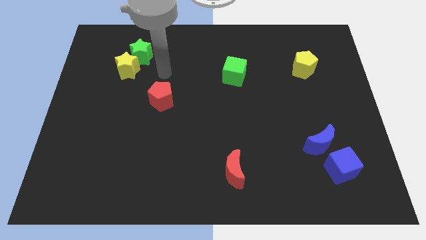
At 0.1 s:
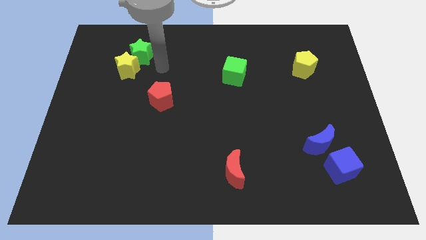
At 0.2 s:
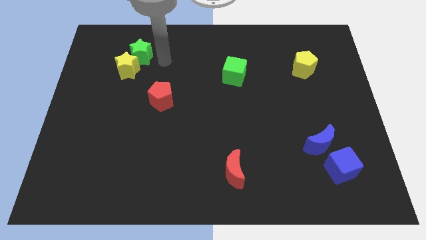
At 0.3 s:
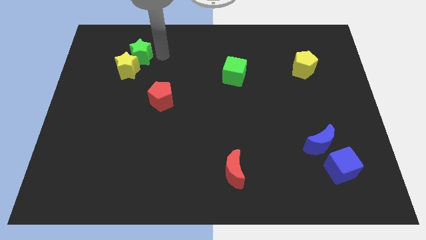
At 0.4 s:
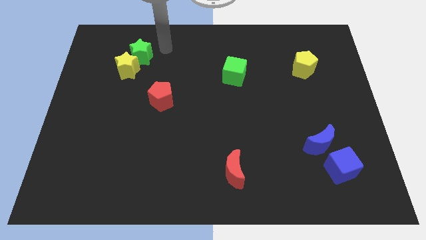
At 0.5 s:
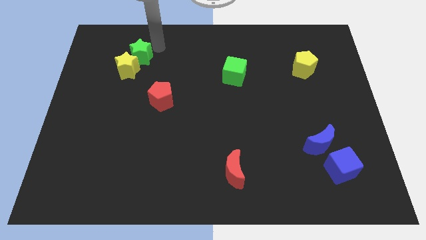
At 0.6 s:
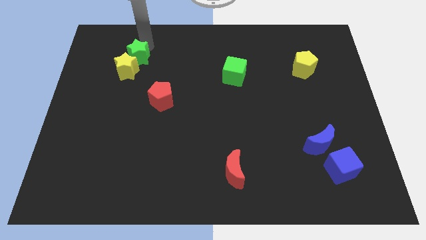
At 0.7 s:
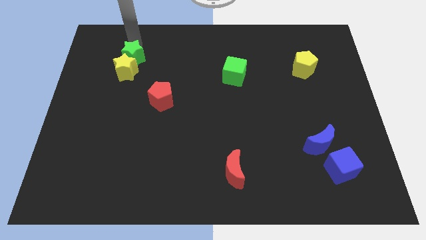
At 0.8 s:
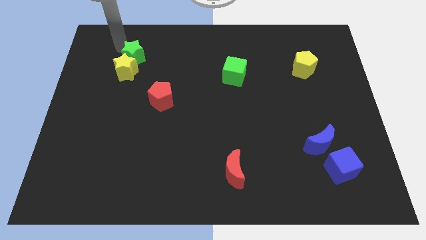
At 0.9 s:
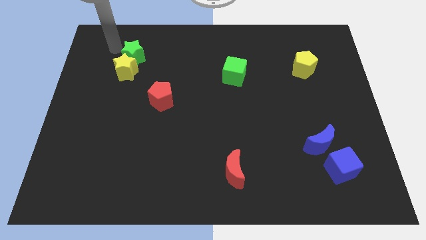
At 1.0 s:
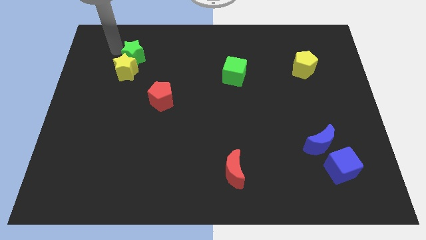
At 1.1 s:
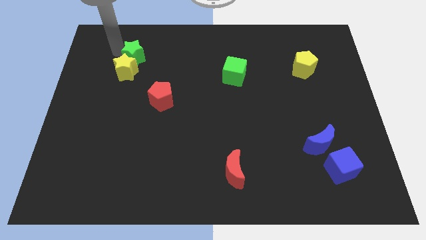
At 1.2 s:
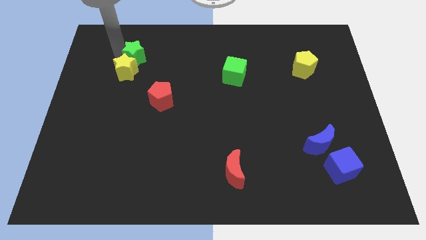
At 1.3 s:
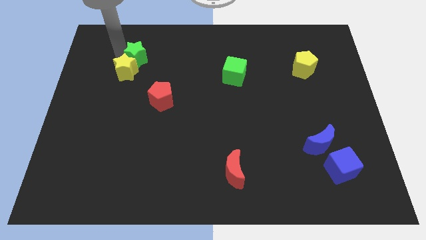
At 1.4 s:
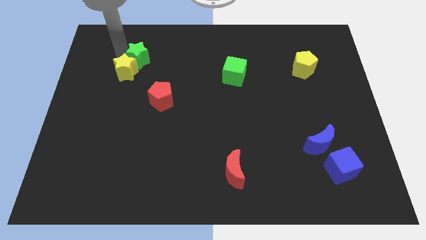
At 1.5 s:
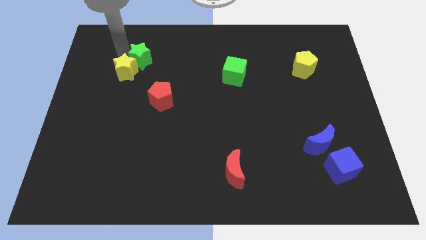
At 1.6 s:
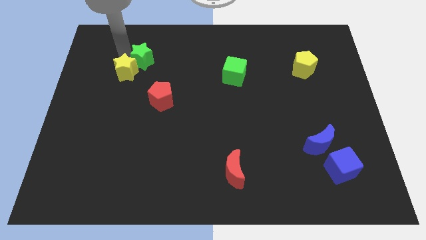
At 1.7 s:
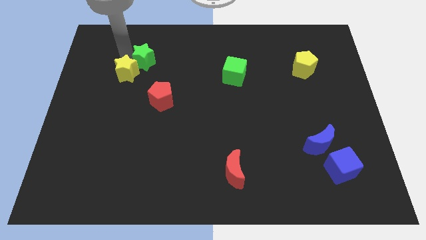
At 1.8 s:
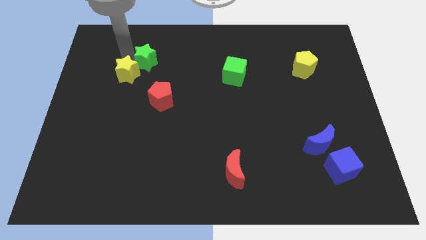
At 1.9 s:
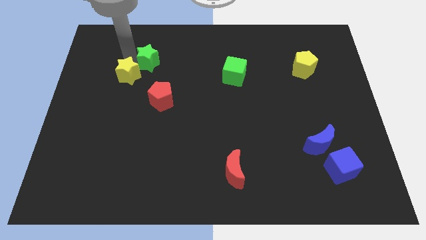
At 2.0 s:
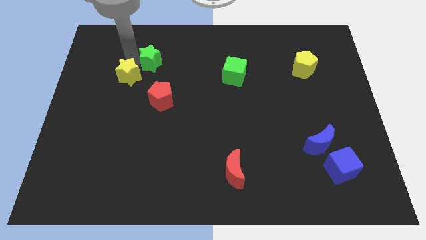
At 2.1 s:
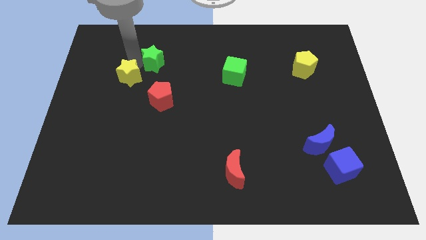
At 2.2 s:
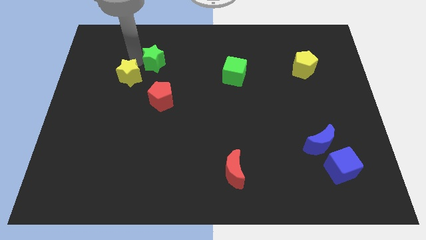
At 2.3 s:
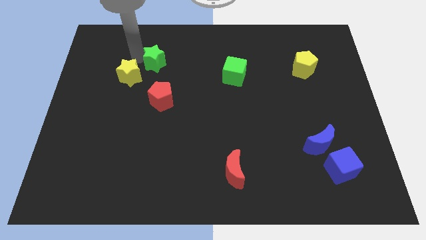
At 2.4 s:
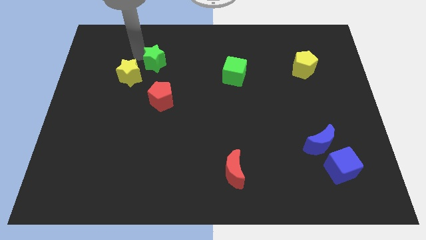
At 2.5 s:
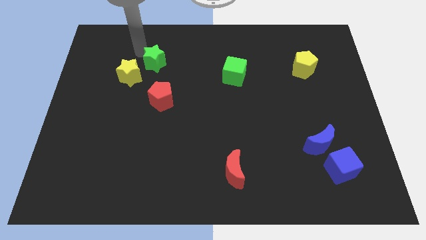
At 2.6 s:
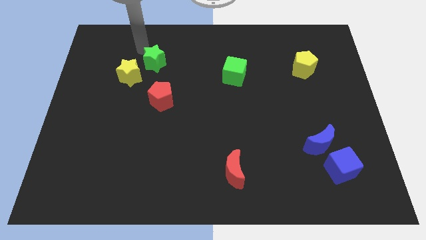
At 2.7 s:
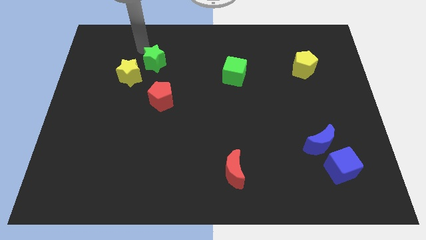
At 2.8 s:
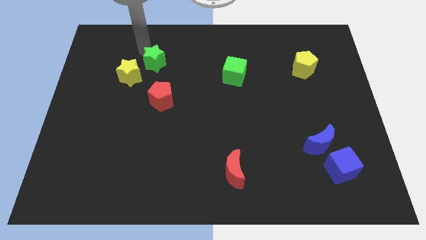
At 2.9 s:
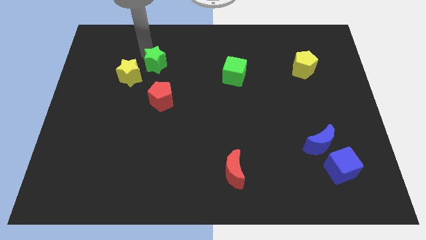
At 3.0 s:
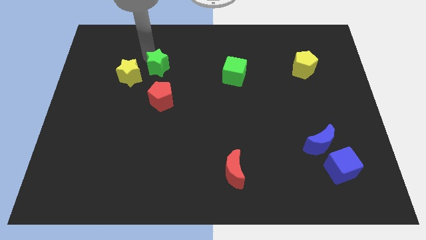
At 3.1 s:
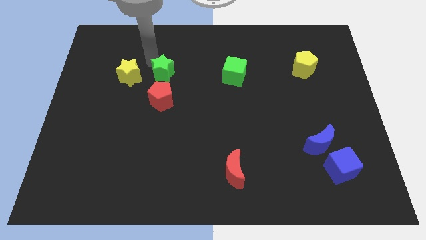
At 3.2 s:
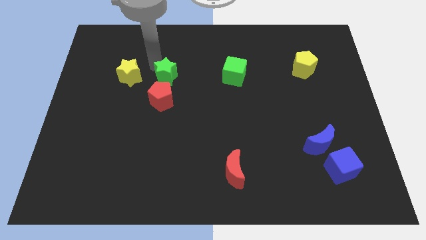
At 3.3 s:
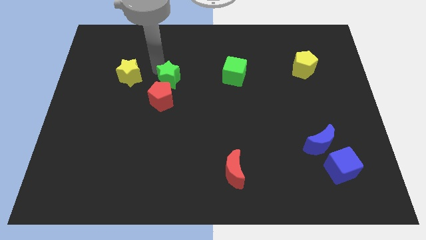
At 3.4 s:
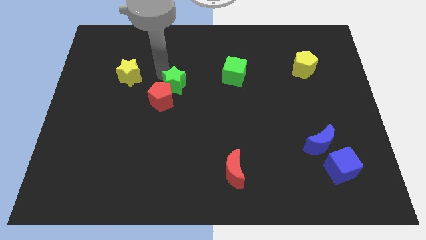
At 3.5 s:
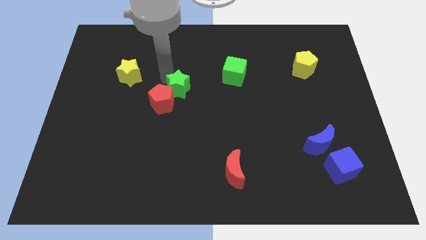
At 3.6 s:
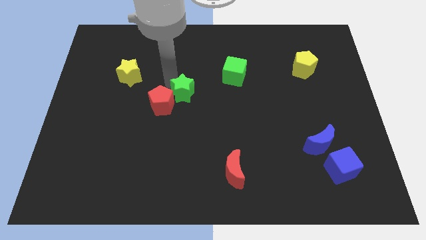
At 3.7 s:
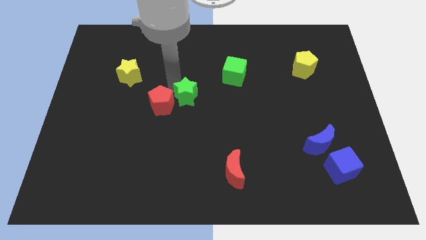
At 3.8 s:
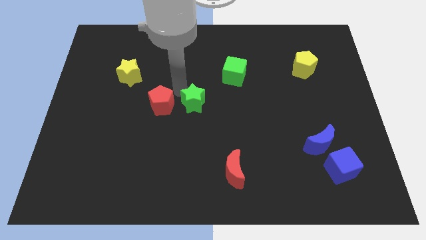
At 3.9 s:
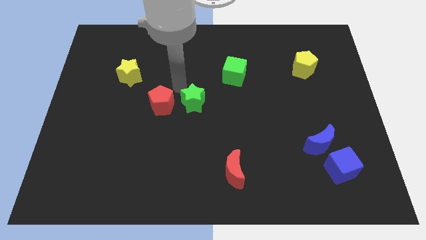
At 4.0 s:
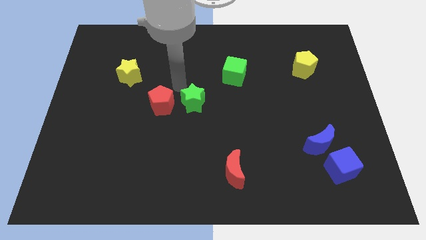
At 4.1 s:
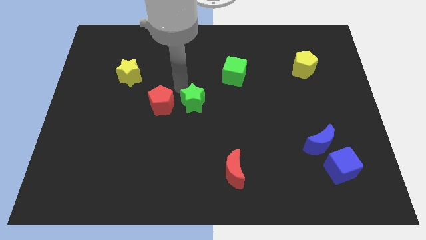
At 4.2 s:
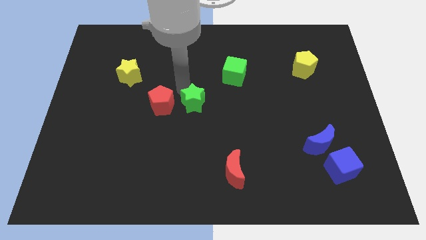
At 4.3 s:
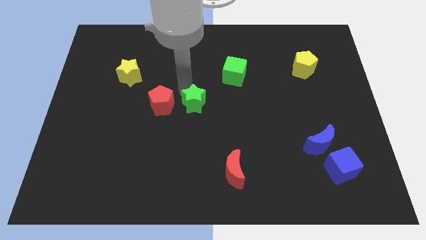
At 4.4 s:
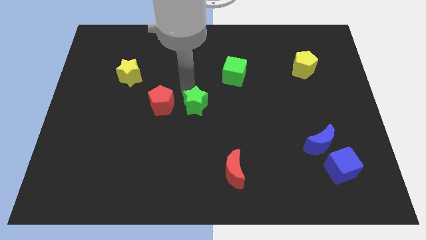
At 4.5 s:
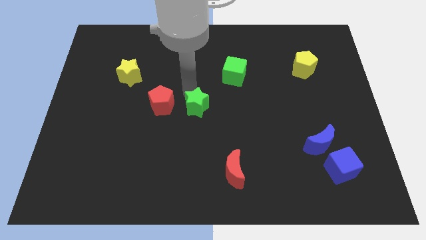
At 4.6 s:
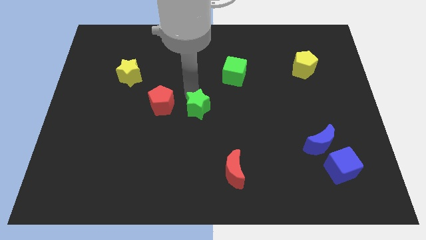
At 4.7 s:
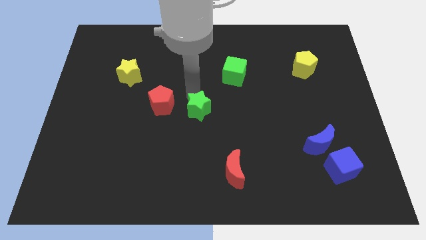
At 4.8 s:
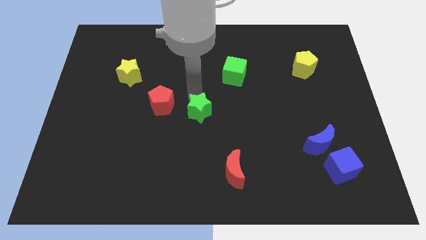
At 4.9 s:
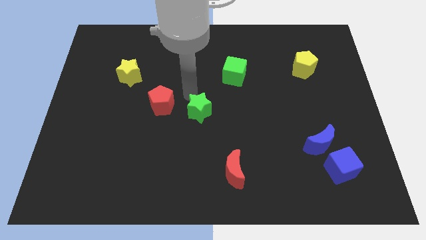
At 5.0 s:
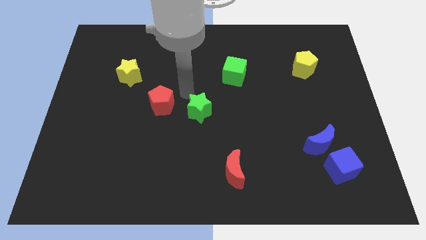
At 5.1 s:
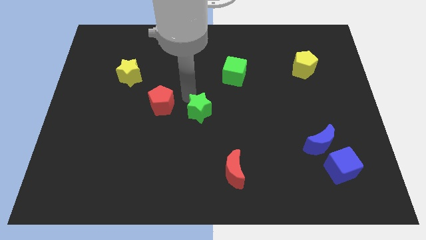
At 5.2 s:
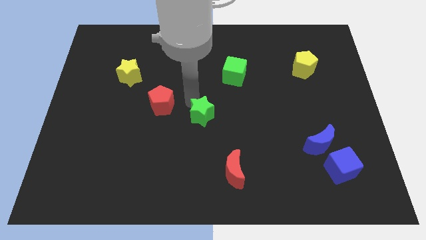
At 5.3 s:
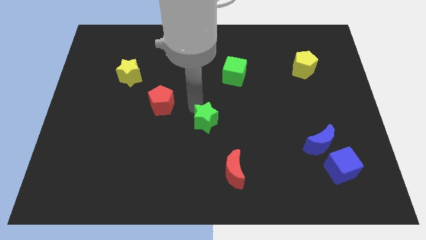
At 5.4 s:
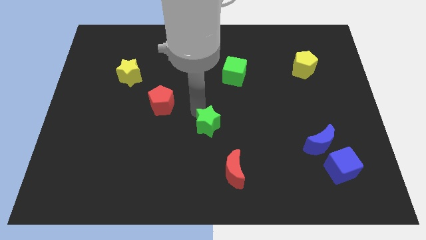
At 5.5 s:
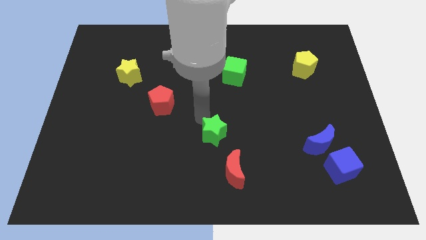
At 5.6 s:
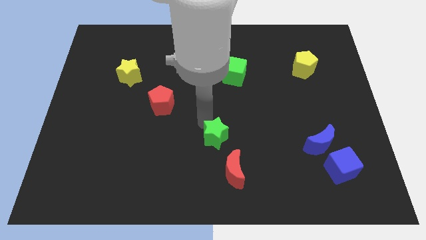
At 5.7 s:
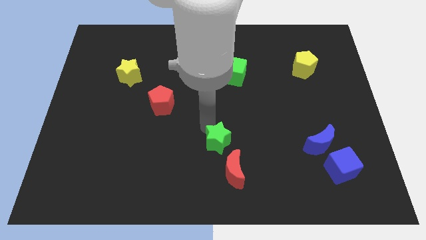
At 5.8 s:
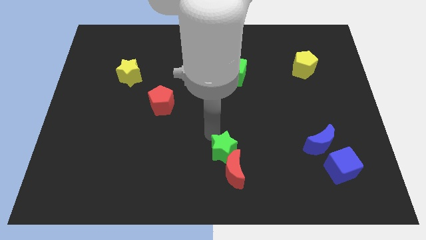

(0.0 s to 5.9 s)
push the green star close to the red moon

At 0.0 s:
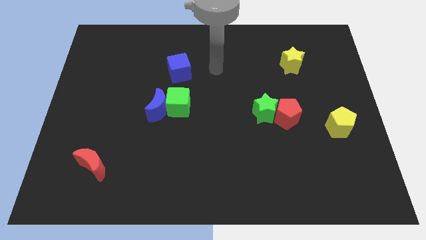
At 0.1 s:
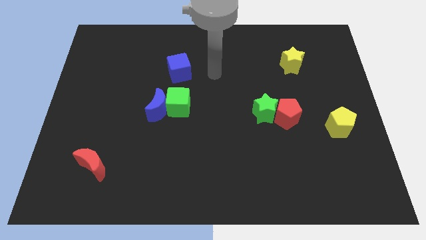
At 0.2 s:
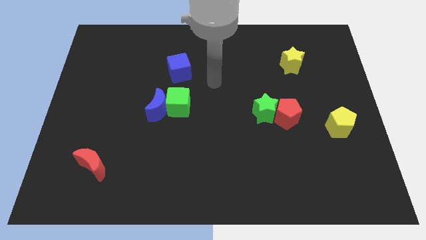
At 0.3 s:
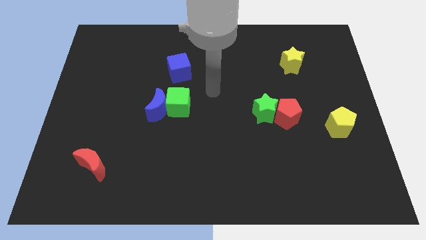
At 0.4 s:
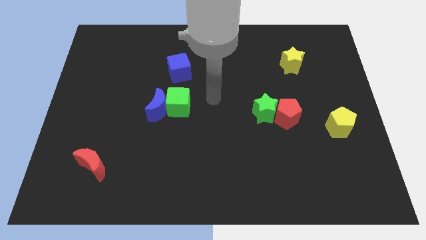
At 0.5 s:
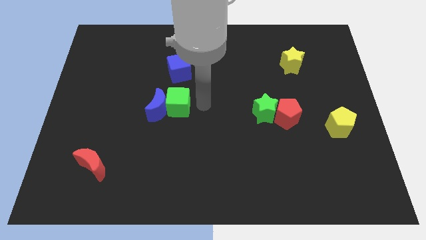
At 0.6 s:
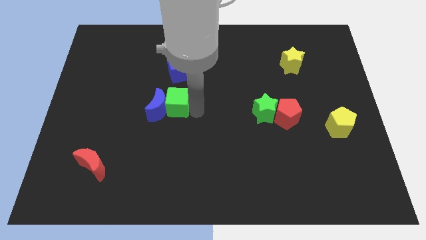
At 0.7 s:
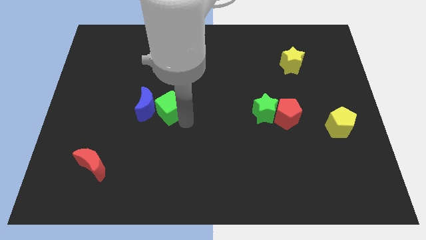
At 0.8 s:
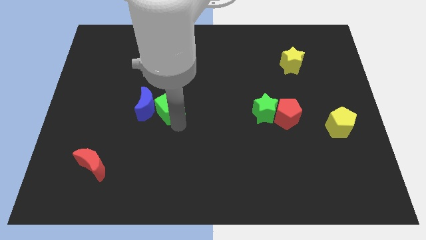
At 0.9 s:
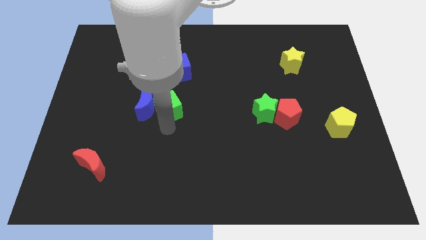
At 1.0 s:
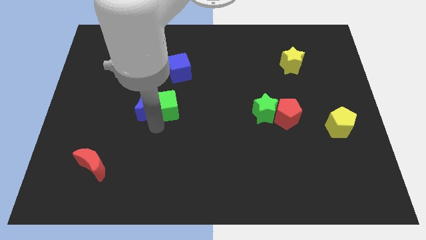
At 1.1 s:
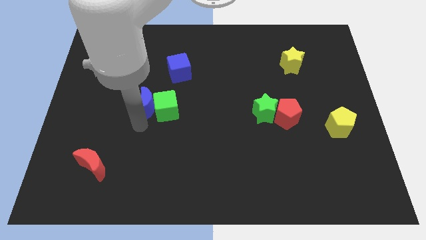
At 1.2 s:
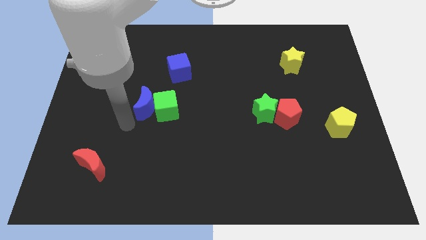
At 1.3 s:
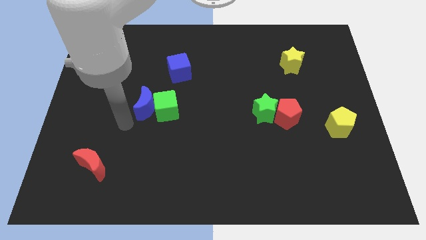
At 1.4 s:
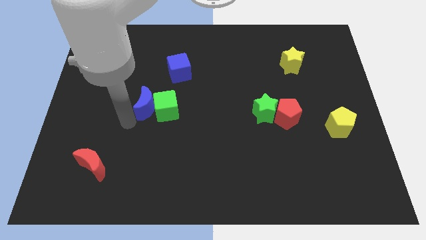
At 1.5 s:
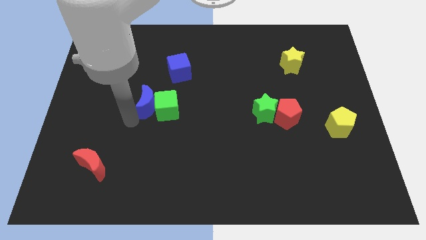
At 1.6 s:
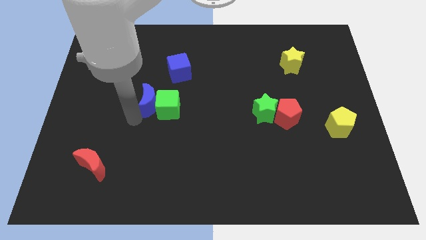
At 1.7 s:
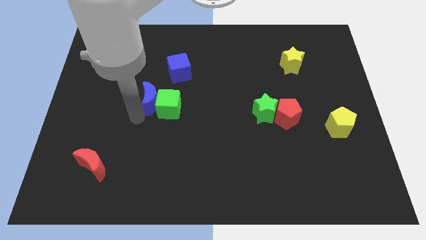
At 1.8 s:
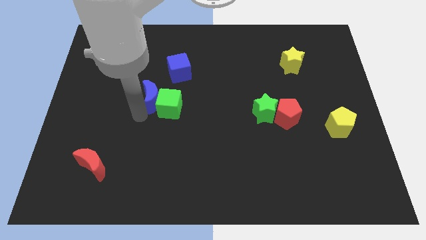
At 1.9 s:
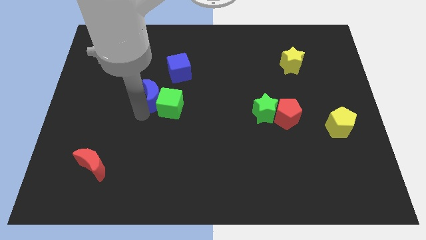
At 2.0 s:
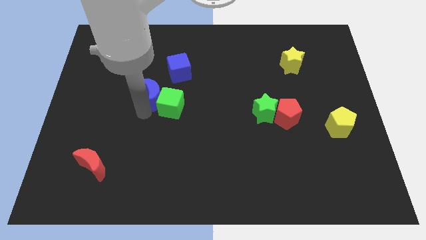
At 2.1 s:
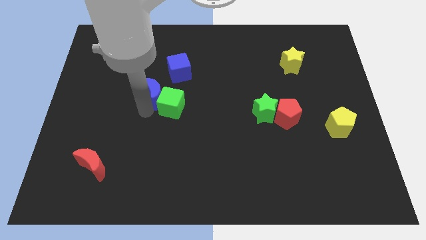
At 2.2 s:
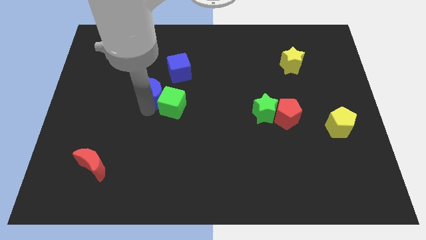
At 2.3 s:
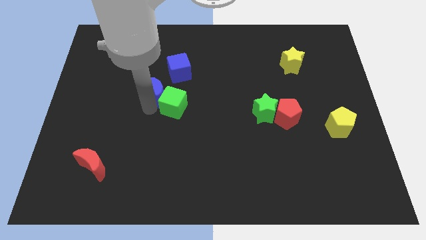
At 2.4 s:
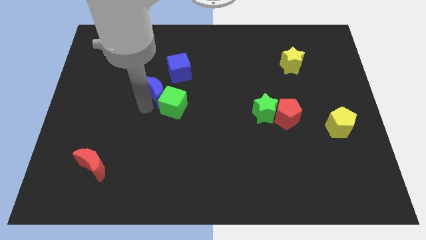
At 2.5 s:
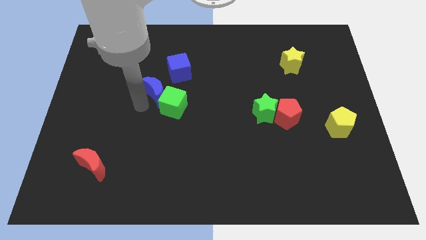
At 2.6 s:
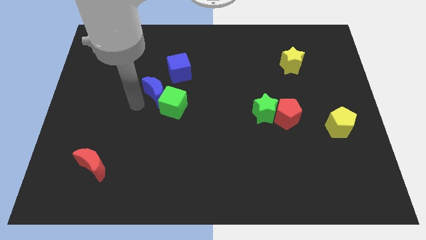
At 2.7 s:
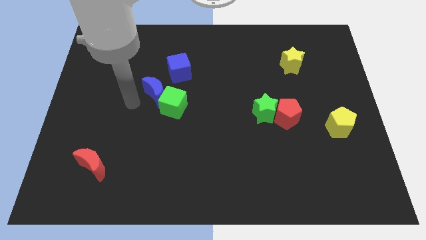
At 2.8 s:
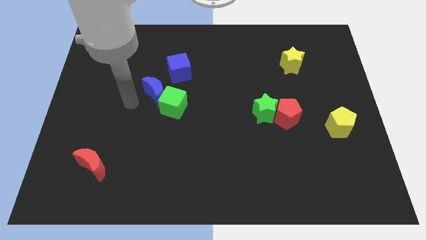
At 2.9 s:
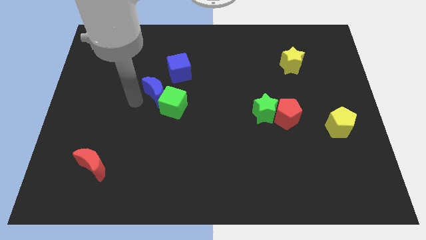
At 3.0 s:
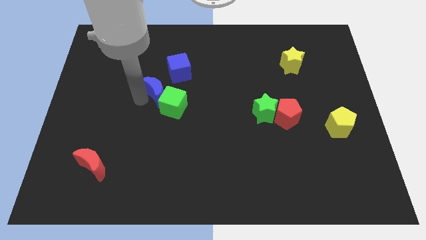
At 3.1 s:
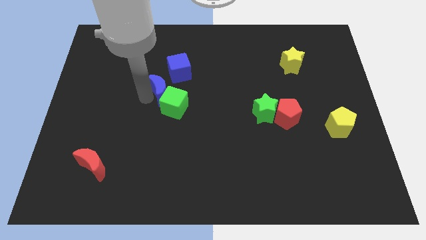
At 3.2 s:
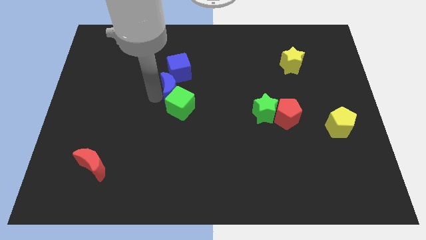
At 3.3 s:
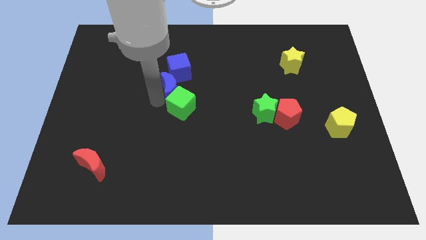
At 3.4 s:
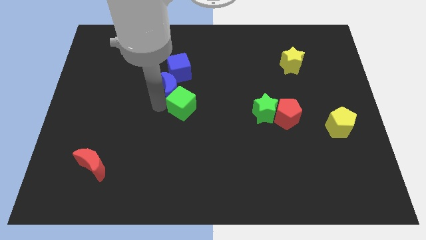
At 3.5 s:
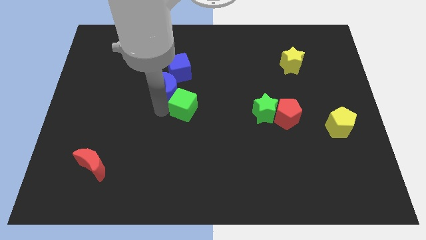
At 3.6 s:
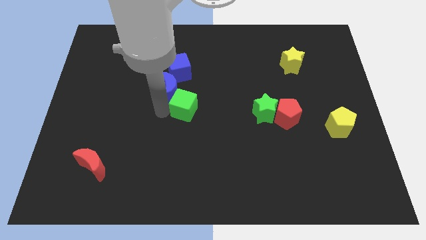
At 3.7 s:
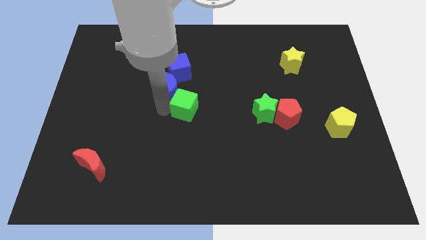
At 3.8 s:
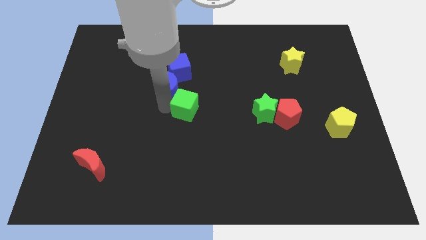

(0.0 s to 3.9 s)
put the blue moon next to the blue cube
